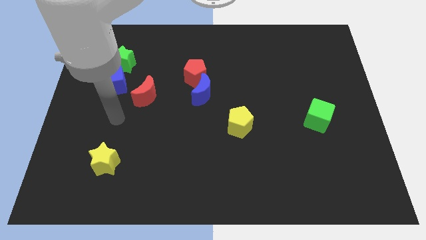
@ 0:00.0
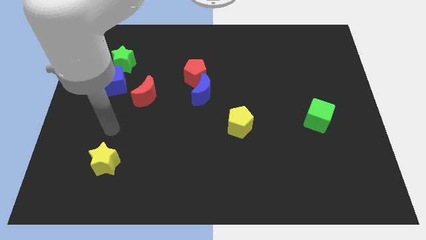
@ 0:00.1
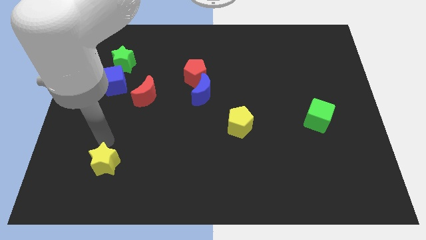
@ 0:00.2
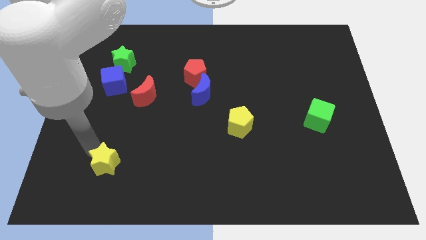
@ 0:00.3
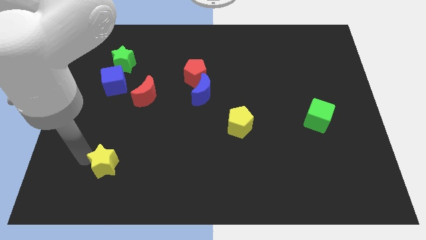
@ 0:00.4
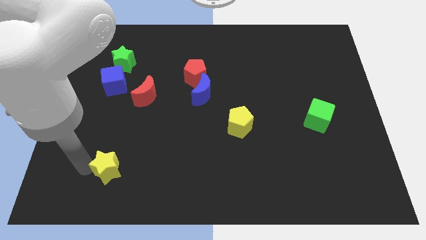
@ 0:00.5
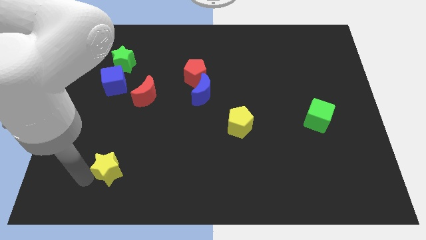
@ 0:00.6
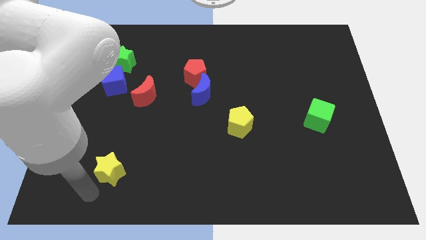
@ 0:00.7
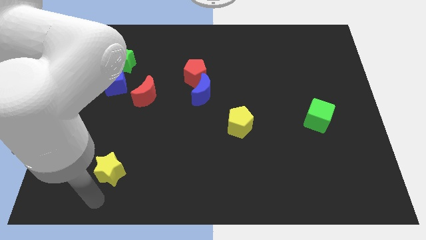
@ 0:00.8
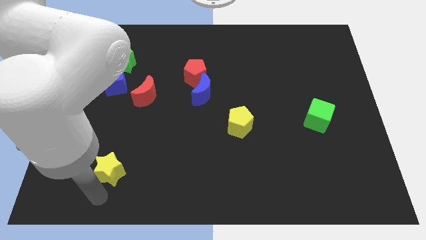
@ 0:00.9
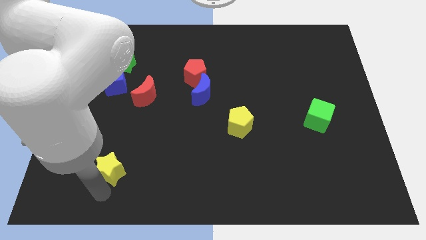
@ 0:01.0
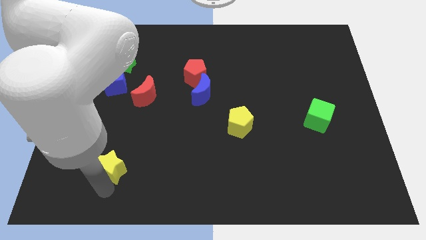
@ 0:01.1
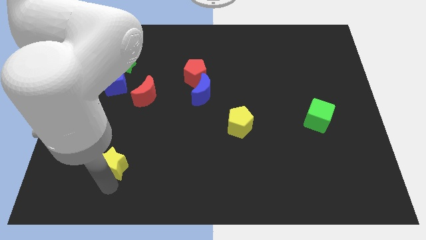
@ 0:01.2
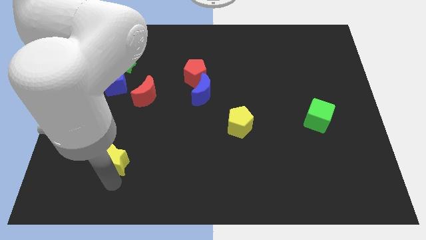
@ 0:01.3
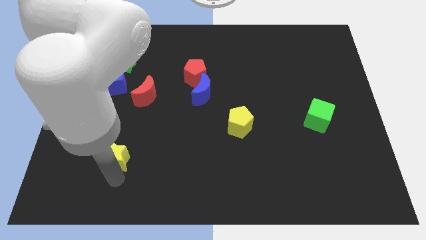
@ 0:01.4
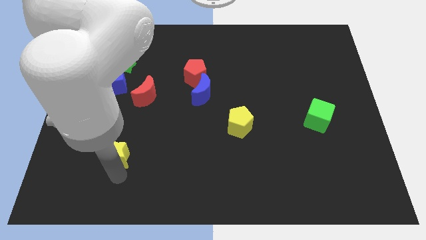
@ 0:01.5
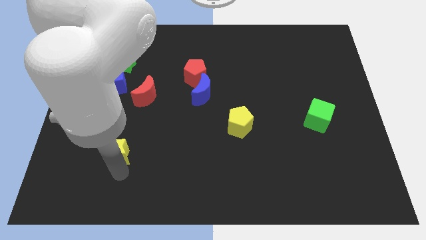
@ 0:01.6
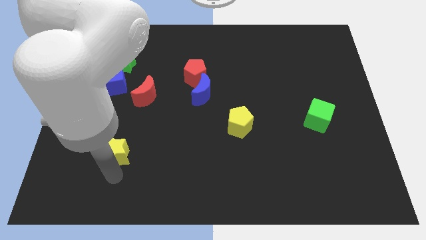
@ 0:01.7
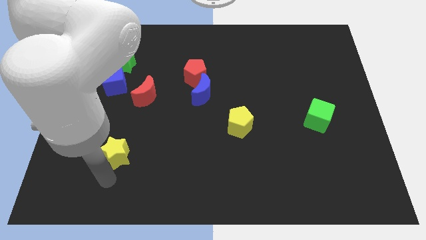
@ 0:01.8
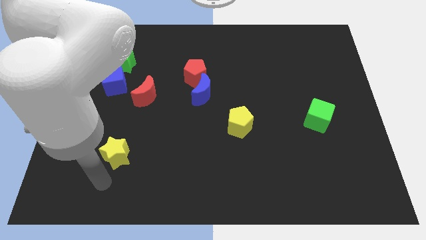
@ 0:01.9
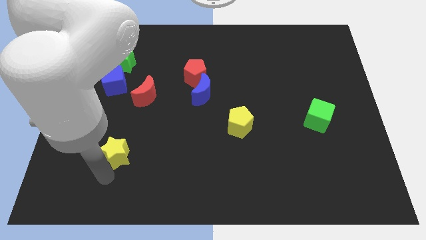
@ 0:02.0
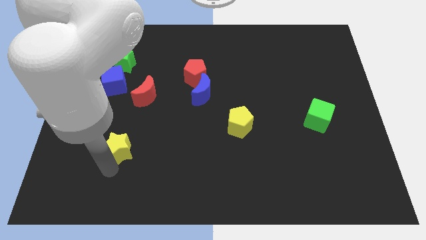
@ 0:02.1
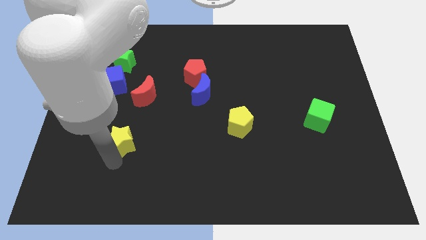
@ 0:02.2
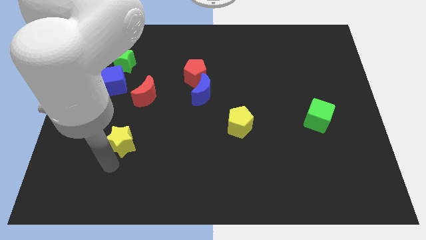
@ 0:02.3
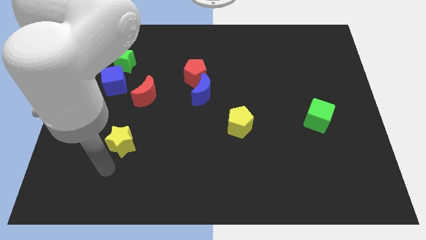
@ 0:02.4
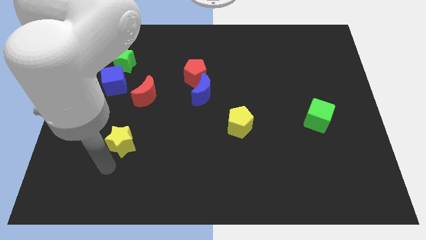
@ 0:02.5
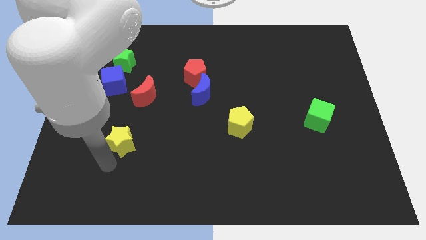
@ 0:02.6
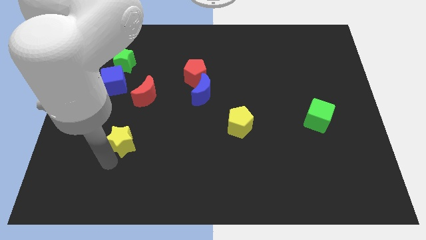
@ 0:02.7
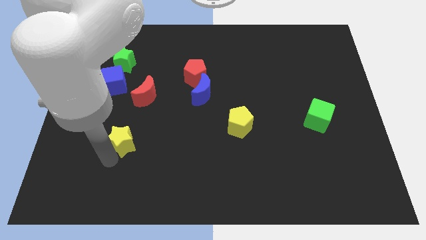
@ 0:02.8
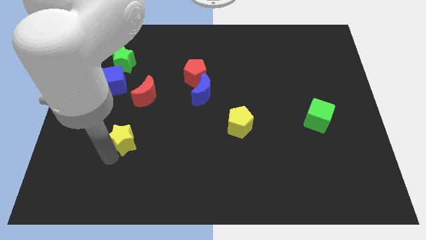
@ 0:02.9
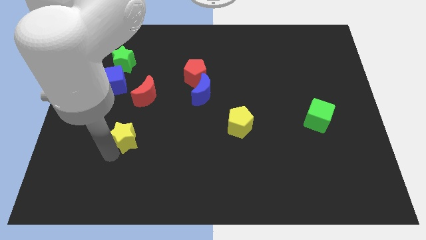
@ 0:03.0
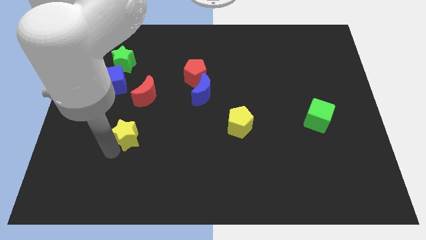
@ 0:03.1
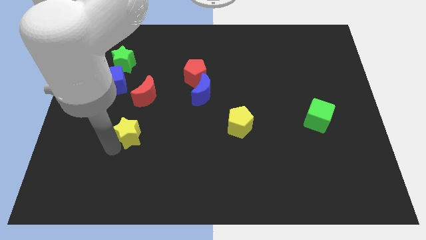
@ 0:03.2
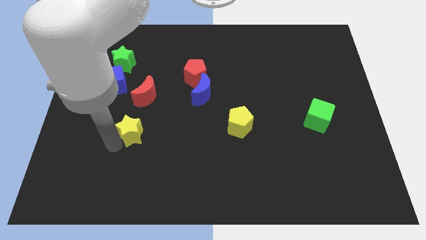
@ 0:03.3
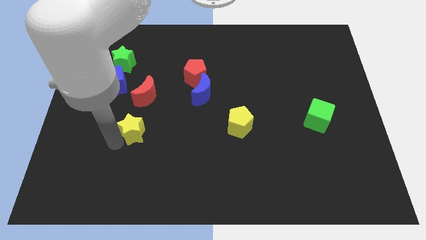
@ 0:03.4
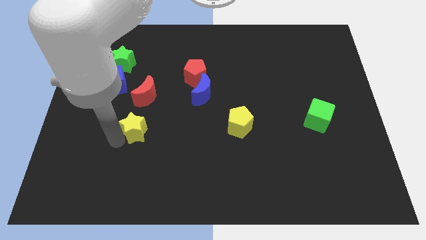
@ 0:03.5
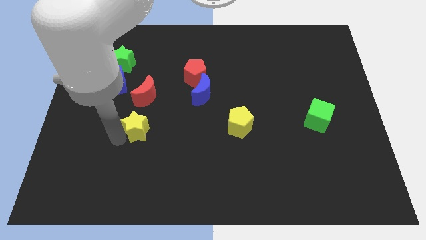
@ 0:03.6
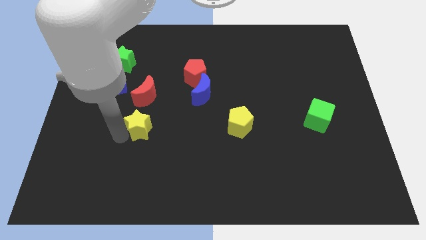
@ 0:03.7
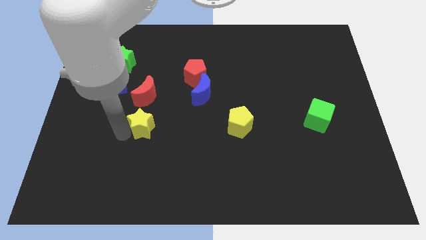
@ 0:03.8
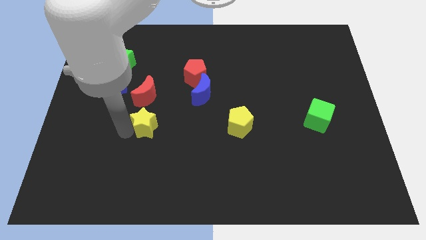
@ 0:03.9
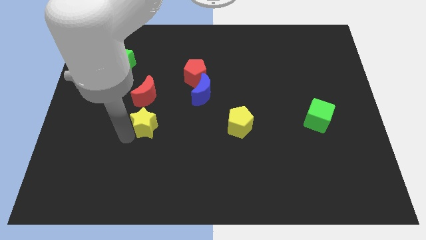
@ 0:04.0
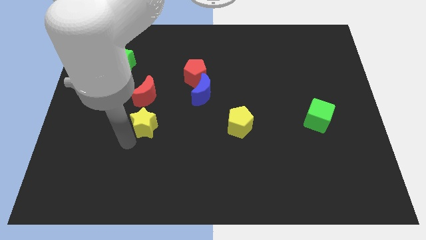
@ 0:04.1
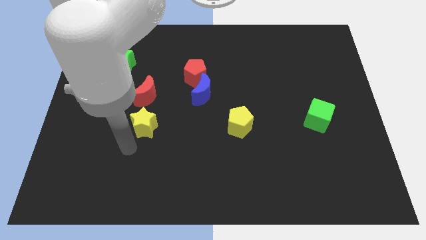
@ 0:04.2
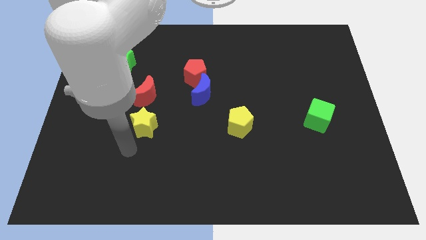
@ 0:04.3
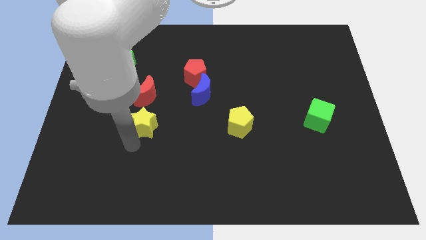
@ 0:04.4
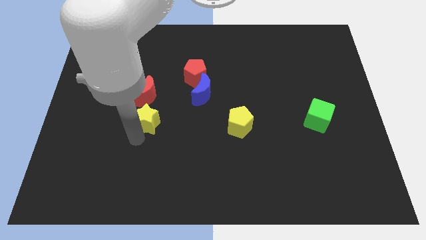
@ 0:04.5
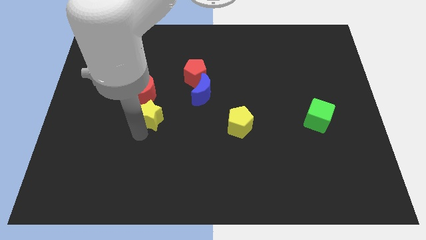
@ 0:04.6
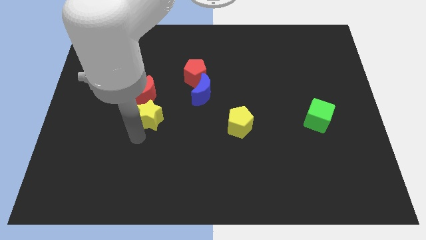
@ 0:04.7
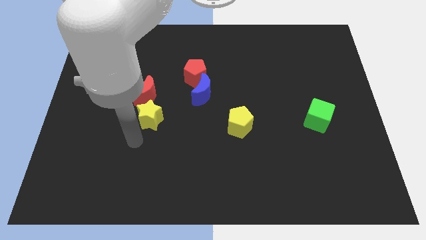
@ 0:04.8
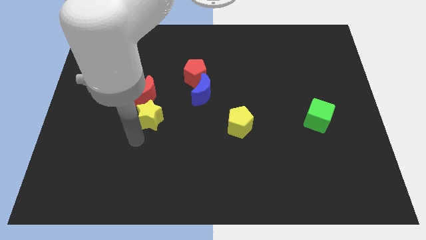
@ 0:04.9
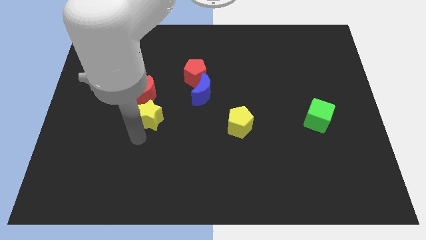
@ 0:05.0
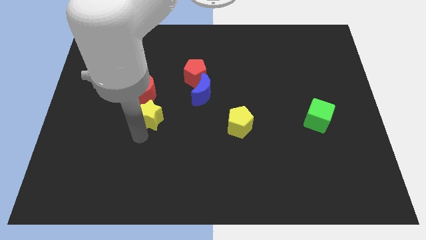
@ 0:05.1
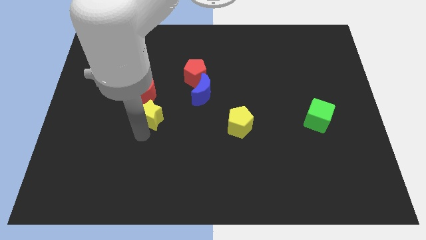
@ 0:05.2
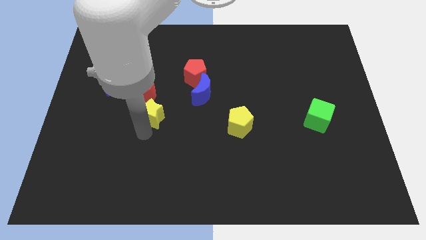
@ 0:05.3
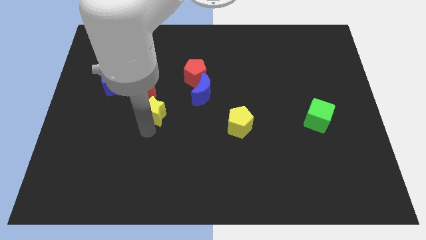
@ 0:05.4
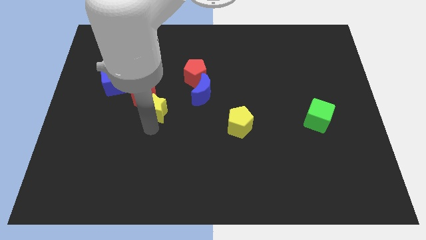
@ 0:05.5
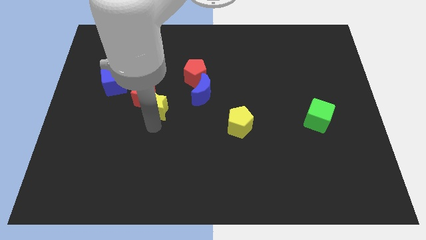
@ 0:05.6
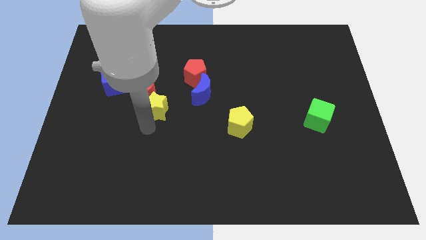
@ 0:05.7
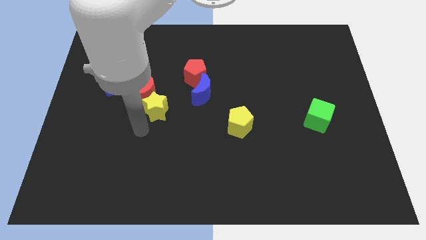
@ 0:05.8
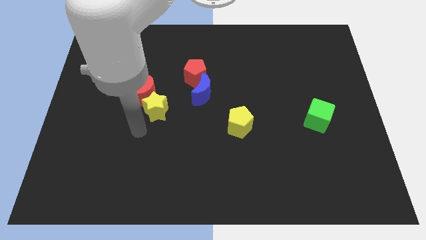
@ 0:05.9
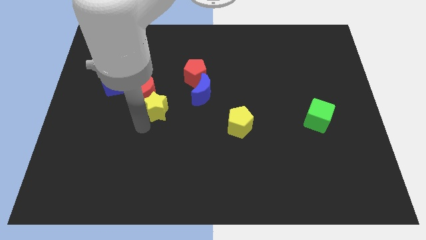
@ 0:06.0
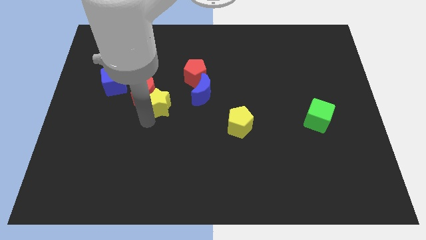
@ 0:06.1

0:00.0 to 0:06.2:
slide the yellow star diagonally down and to the left of the red pentagon
